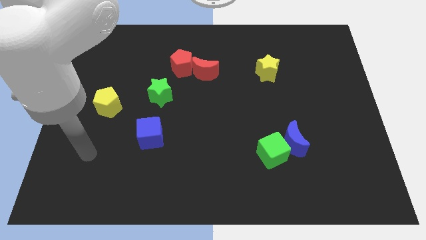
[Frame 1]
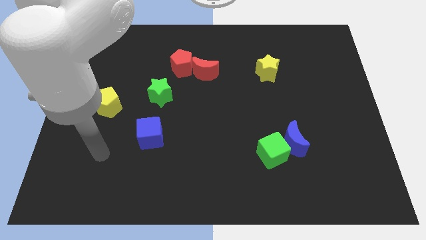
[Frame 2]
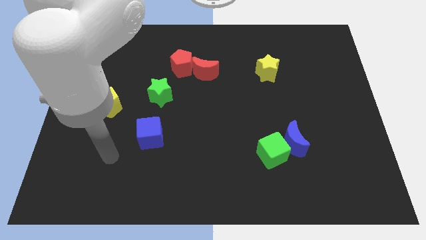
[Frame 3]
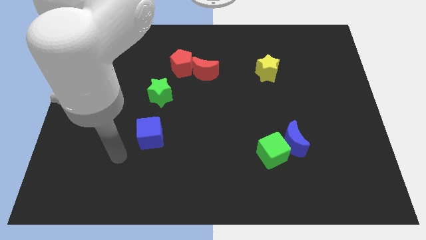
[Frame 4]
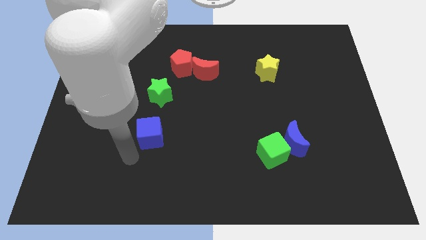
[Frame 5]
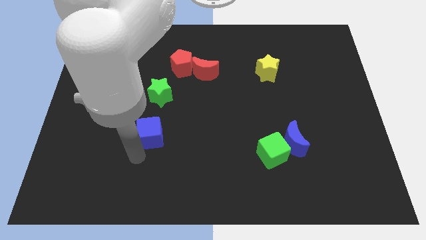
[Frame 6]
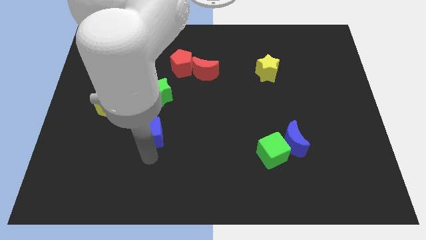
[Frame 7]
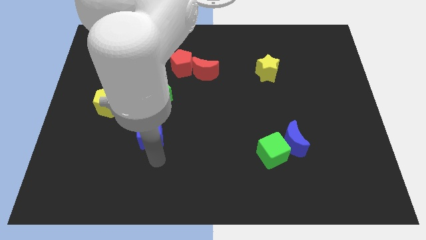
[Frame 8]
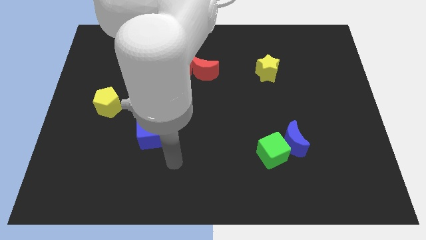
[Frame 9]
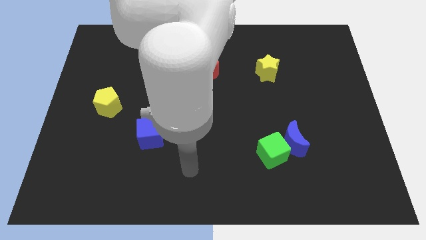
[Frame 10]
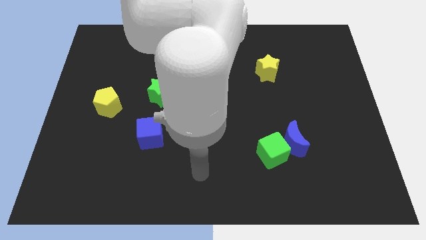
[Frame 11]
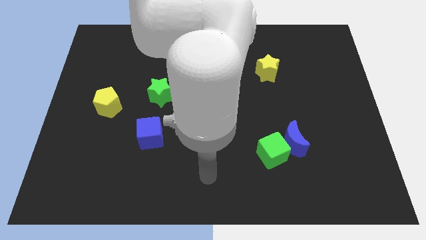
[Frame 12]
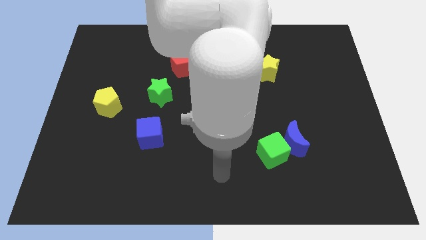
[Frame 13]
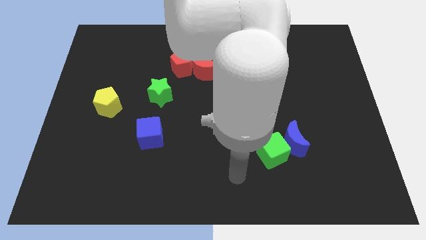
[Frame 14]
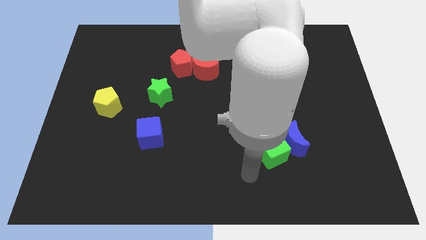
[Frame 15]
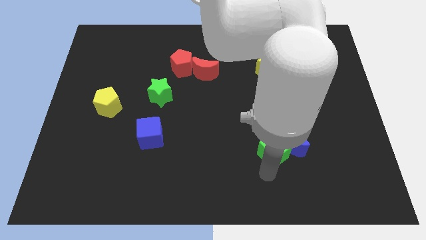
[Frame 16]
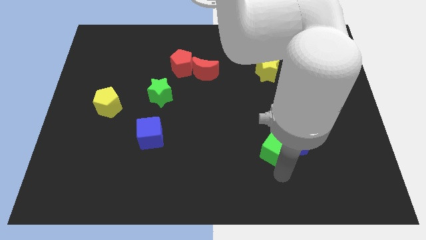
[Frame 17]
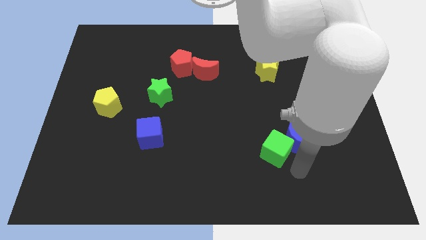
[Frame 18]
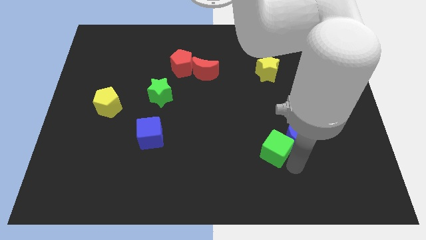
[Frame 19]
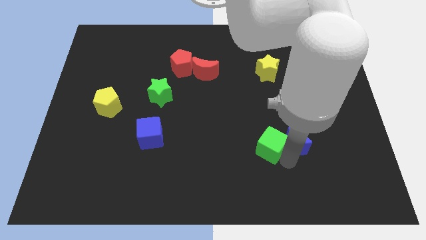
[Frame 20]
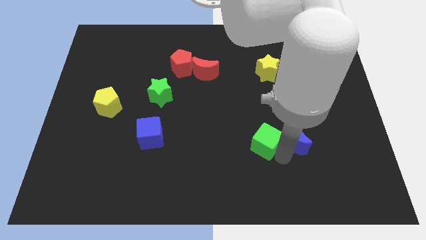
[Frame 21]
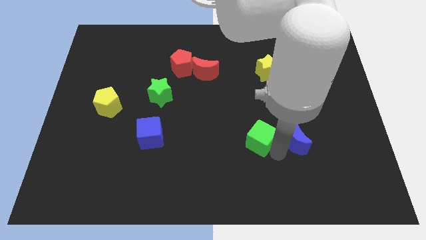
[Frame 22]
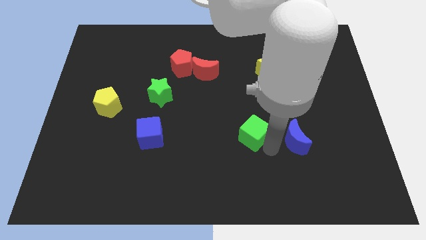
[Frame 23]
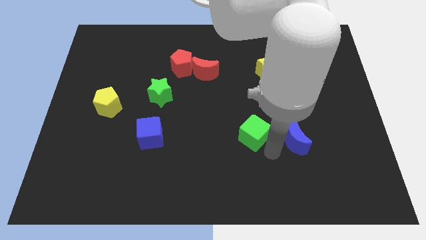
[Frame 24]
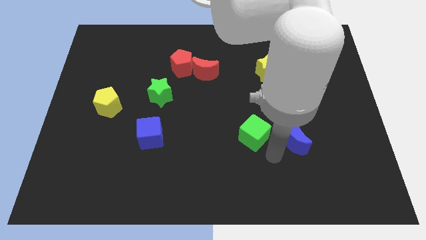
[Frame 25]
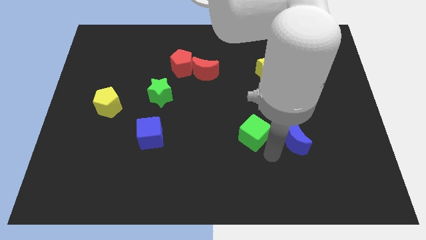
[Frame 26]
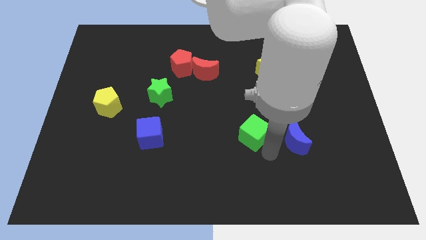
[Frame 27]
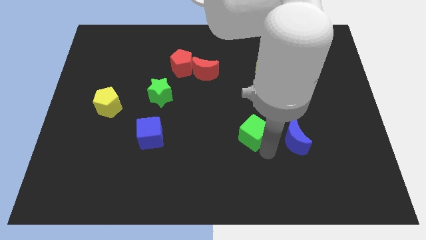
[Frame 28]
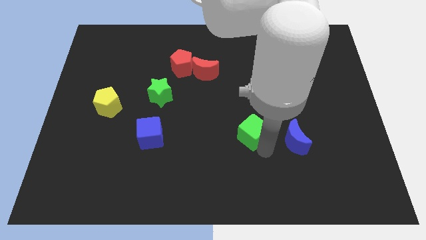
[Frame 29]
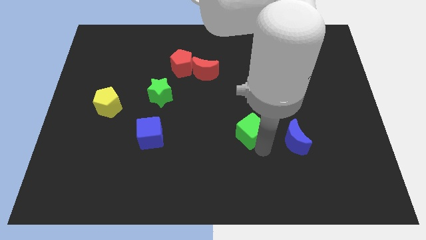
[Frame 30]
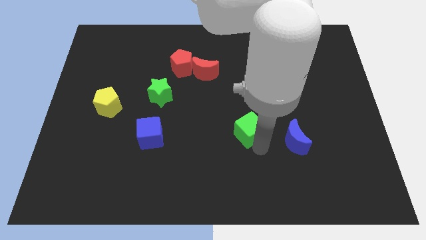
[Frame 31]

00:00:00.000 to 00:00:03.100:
slide the green cube upwards and then to the left slightly

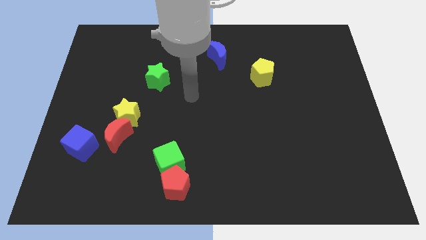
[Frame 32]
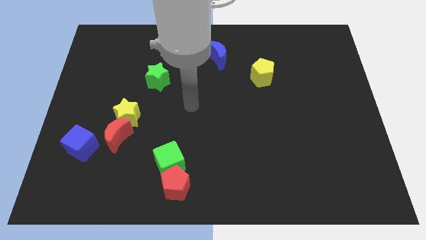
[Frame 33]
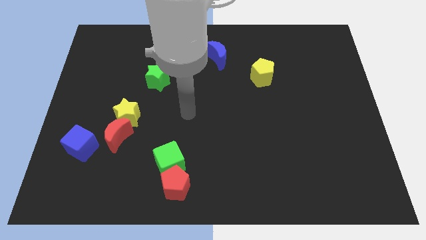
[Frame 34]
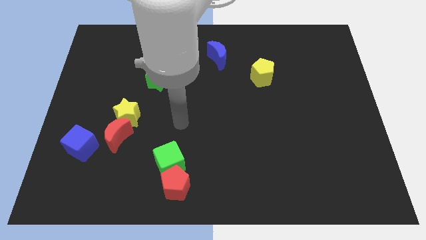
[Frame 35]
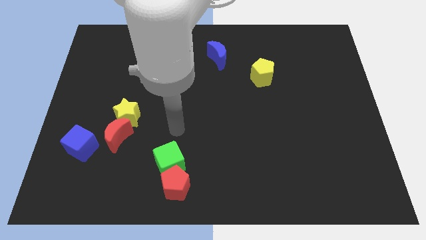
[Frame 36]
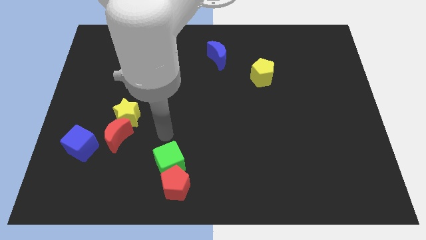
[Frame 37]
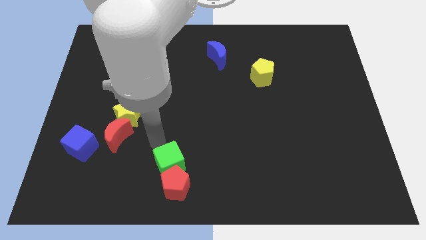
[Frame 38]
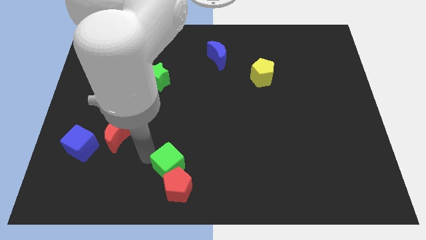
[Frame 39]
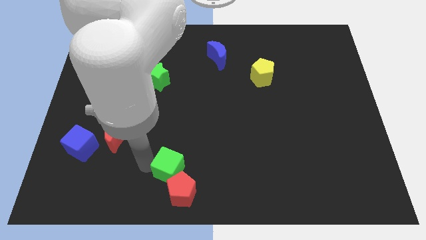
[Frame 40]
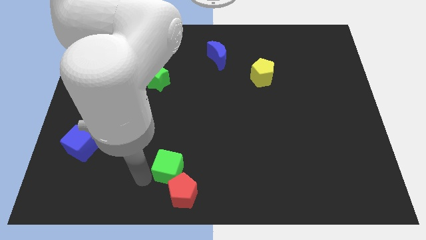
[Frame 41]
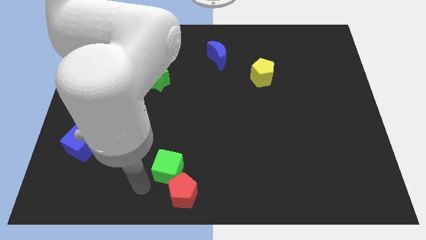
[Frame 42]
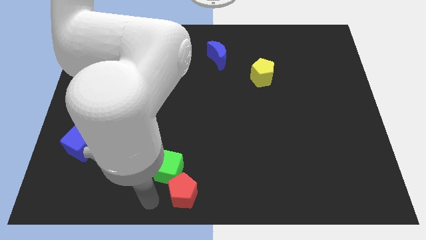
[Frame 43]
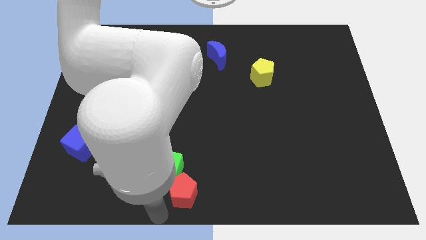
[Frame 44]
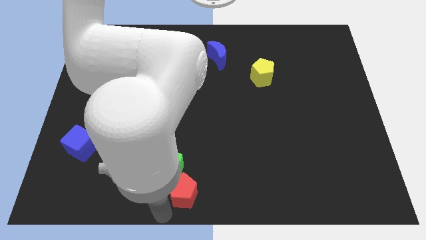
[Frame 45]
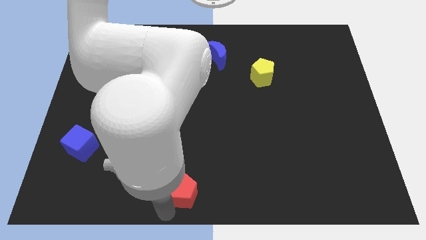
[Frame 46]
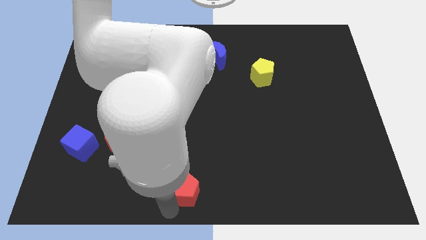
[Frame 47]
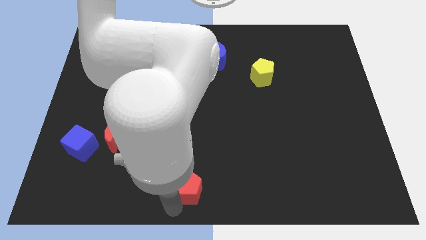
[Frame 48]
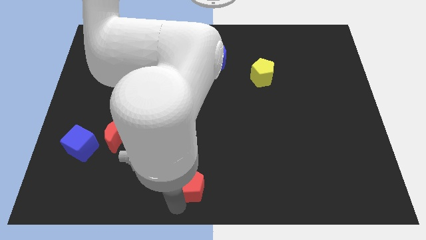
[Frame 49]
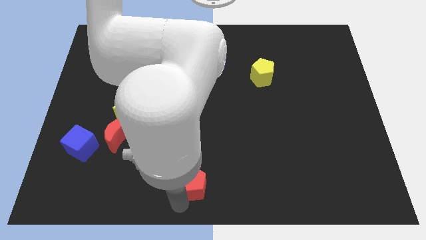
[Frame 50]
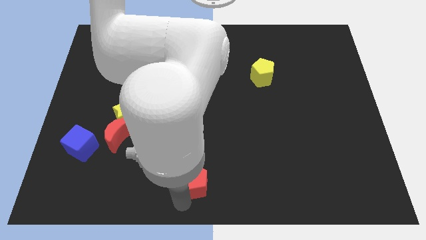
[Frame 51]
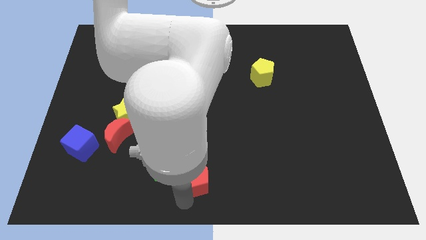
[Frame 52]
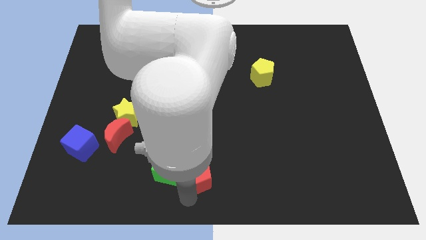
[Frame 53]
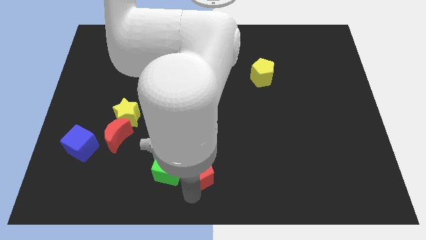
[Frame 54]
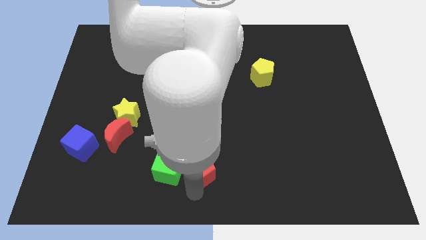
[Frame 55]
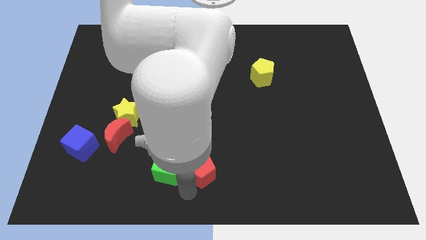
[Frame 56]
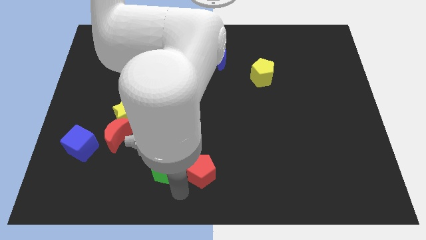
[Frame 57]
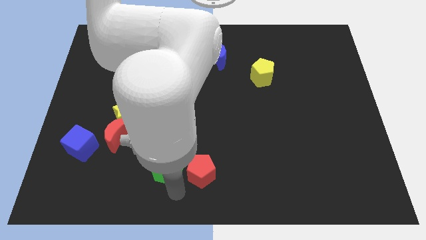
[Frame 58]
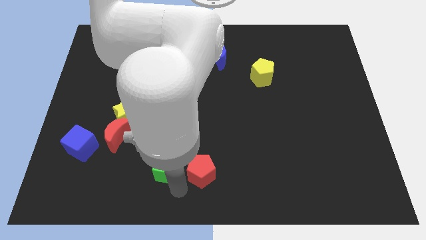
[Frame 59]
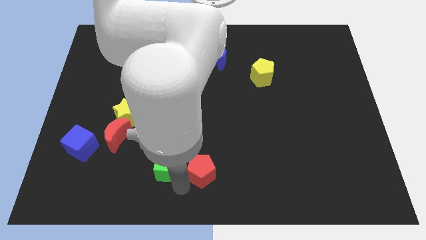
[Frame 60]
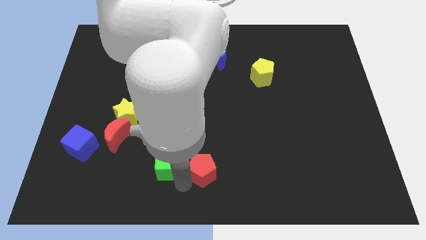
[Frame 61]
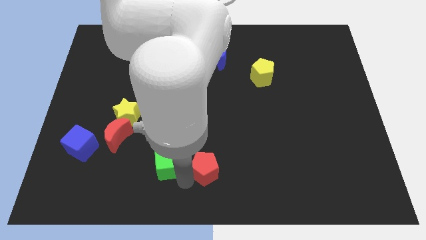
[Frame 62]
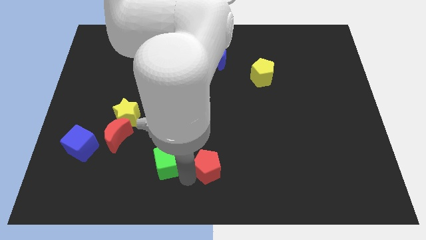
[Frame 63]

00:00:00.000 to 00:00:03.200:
slightly push the red pentagon diagonally upwards and right

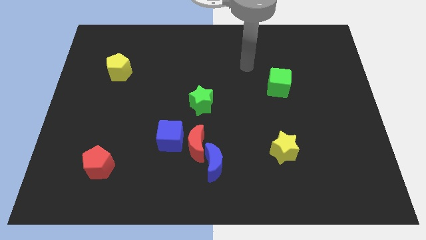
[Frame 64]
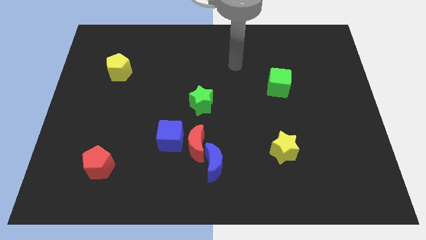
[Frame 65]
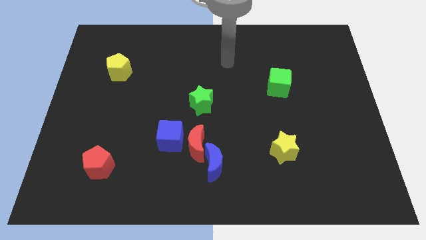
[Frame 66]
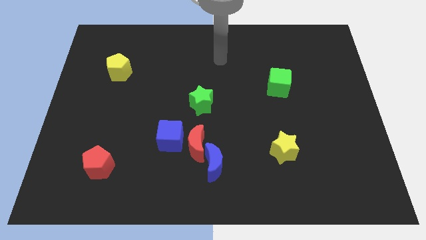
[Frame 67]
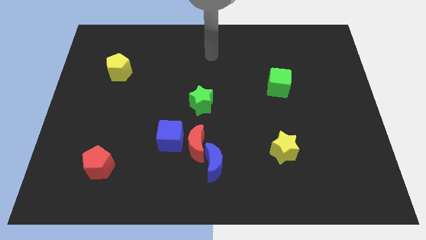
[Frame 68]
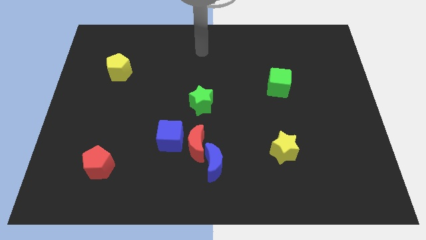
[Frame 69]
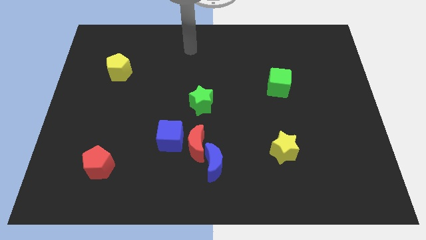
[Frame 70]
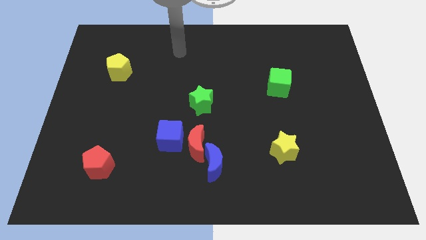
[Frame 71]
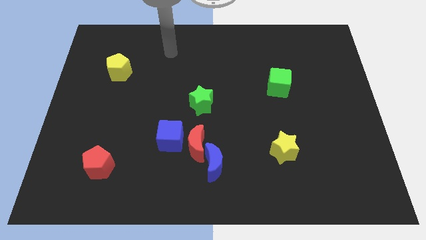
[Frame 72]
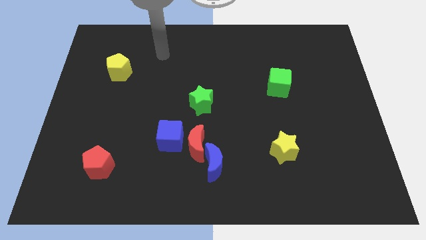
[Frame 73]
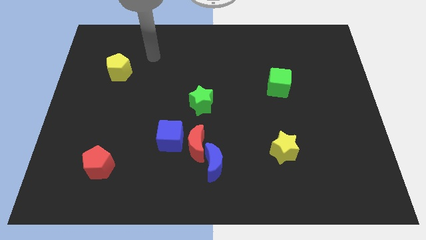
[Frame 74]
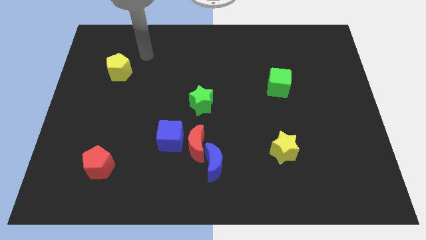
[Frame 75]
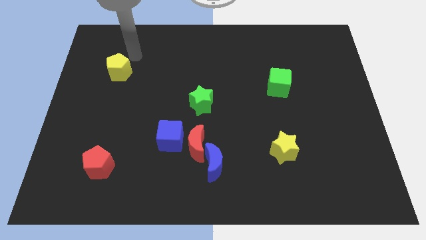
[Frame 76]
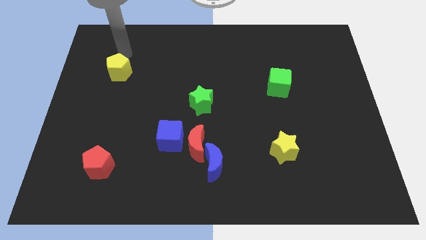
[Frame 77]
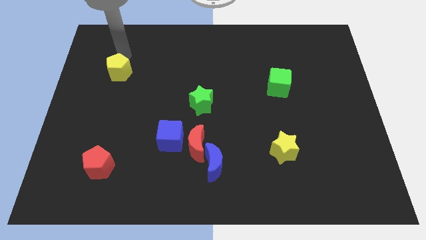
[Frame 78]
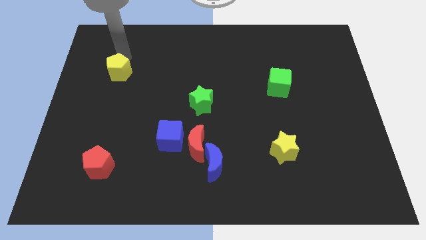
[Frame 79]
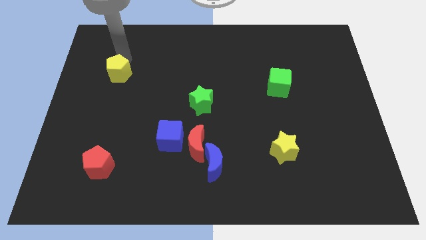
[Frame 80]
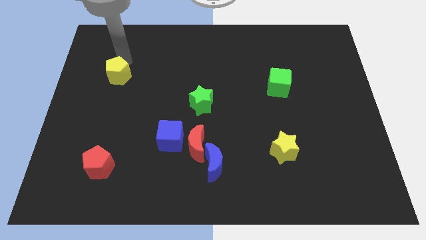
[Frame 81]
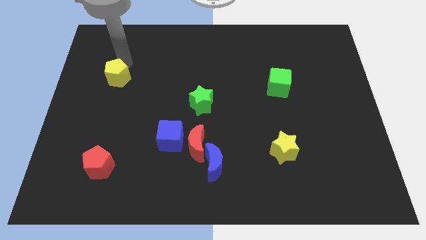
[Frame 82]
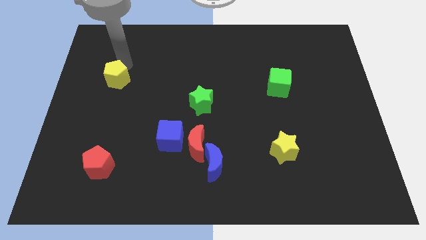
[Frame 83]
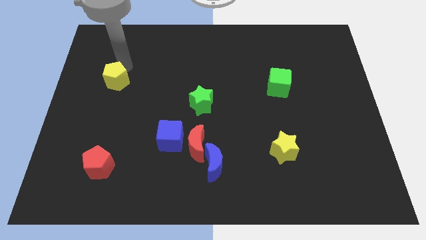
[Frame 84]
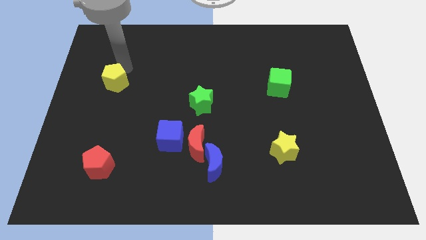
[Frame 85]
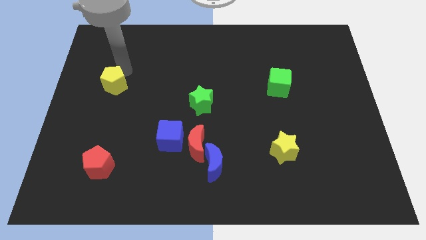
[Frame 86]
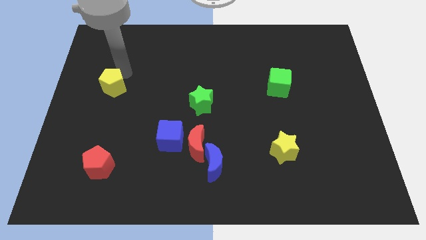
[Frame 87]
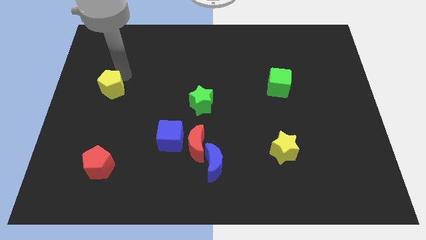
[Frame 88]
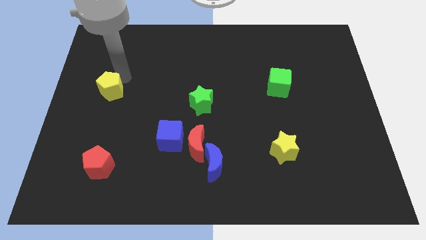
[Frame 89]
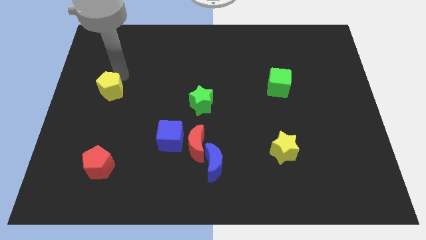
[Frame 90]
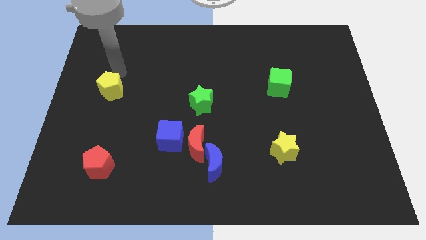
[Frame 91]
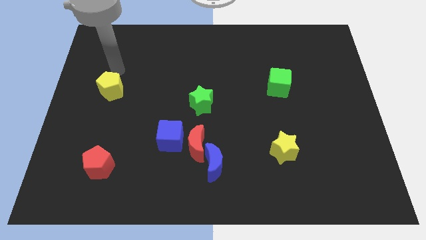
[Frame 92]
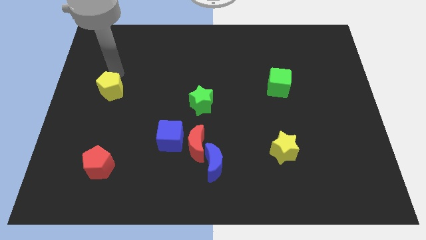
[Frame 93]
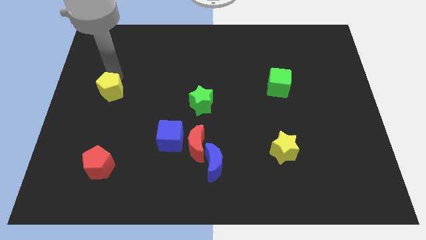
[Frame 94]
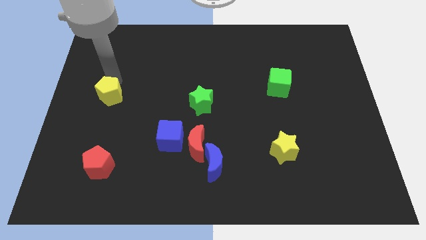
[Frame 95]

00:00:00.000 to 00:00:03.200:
push the yellow pentagon down a little bit
